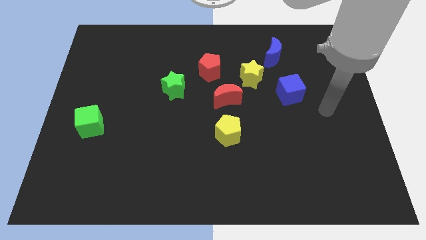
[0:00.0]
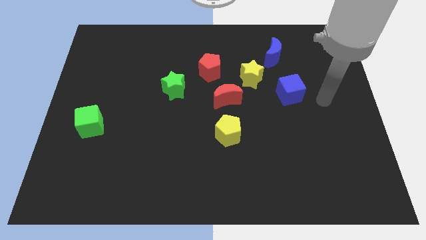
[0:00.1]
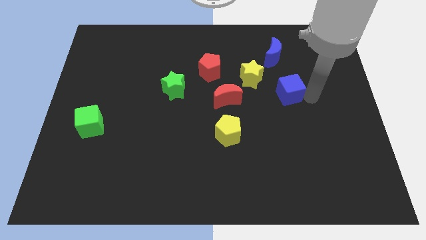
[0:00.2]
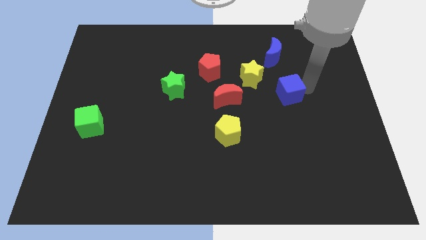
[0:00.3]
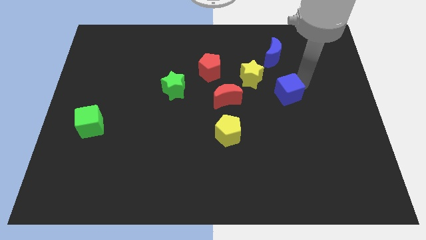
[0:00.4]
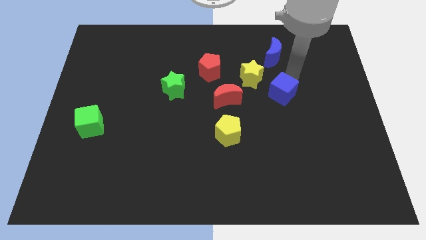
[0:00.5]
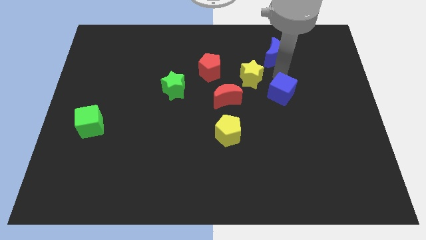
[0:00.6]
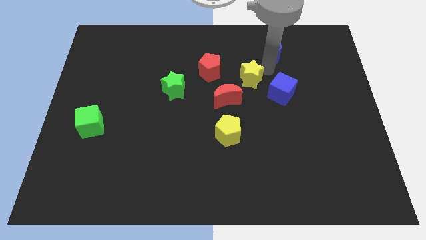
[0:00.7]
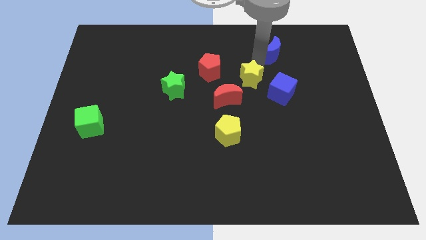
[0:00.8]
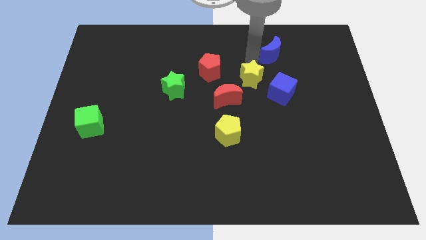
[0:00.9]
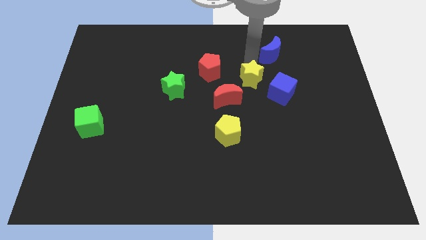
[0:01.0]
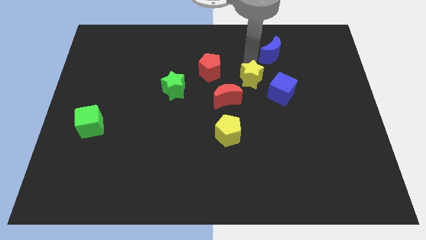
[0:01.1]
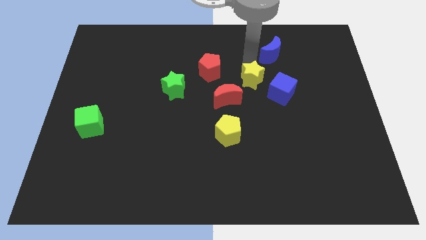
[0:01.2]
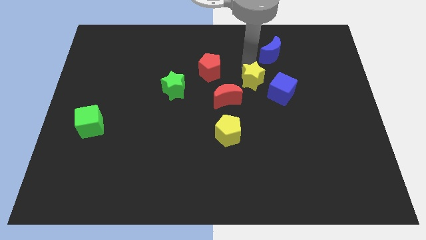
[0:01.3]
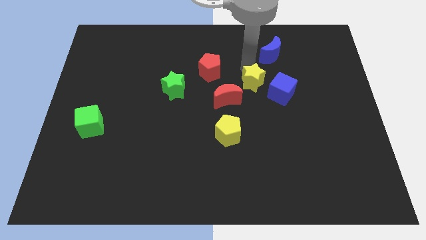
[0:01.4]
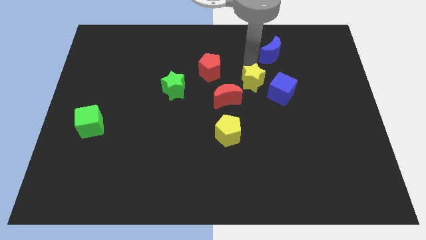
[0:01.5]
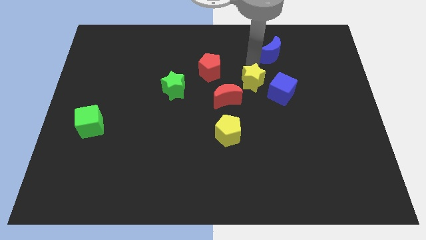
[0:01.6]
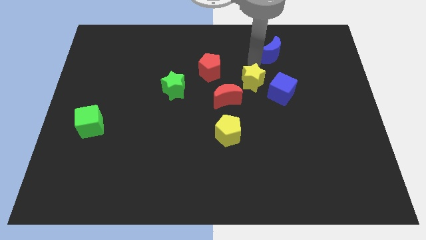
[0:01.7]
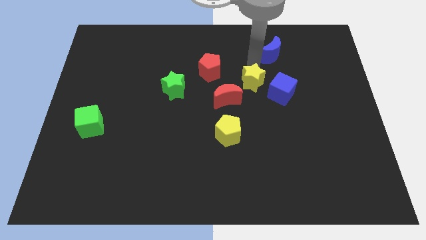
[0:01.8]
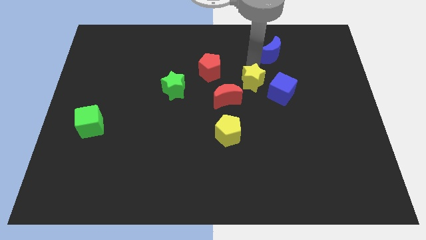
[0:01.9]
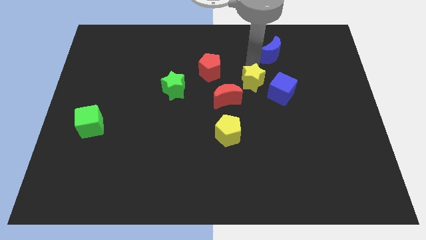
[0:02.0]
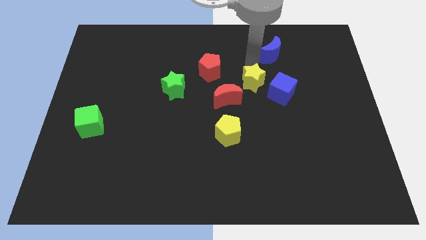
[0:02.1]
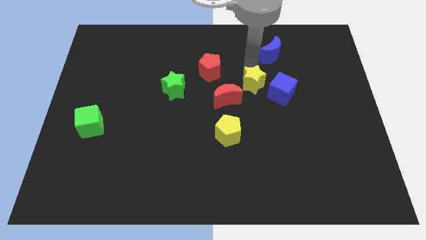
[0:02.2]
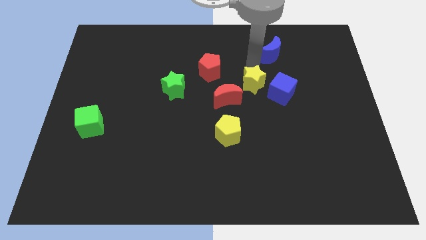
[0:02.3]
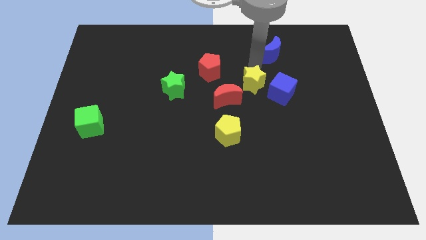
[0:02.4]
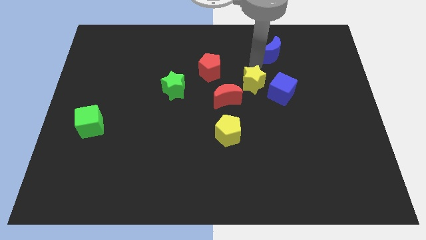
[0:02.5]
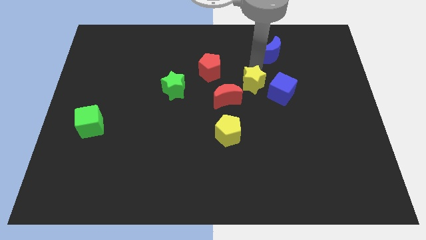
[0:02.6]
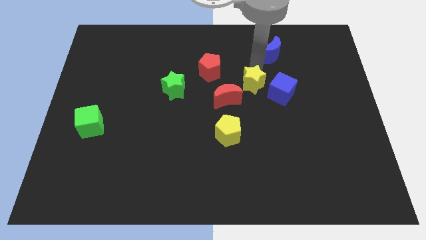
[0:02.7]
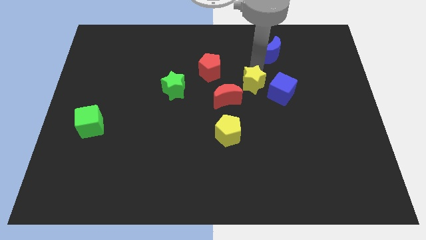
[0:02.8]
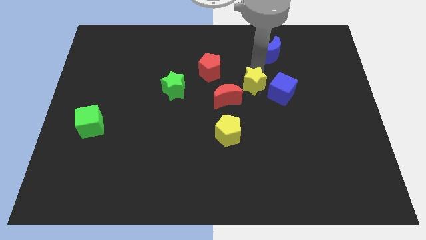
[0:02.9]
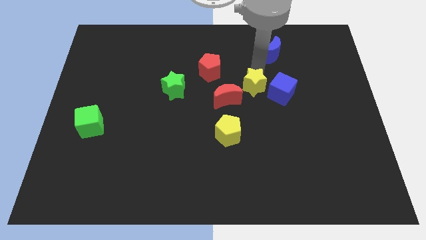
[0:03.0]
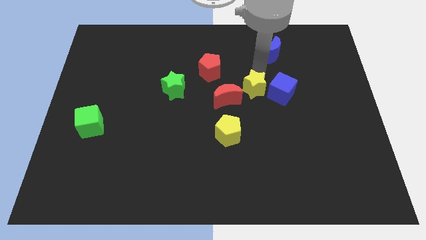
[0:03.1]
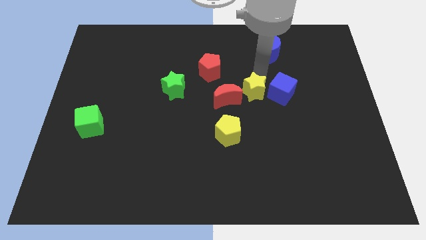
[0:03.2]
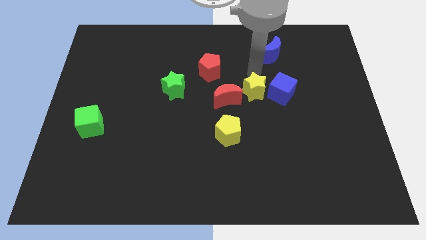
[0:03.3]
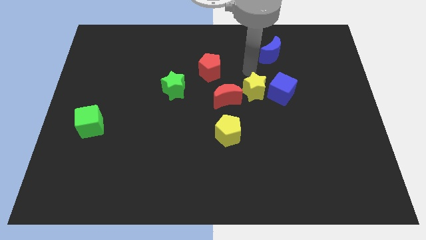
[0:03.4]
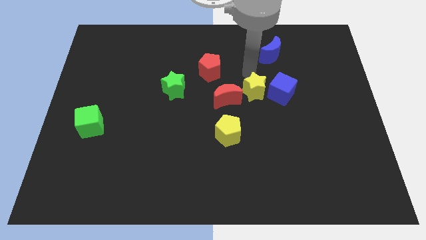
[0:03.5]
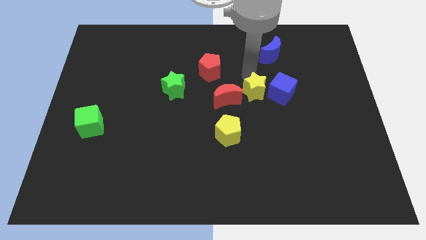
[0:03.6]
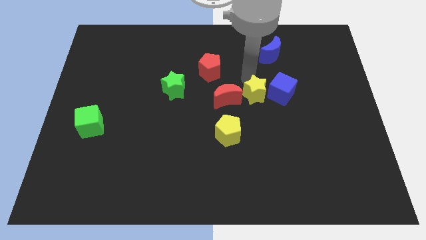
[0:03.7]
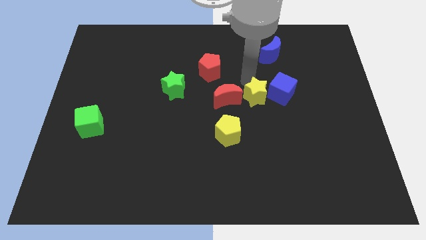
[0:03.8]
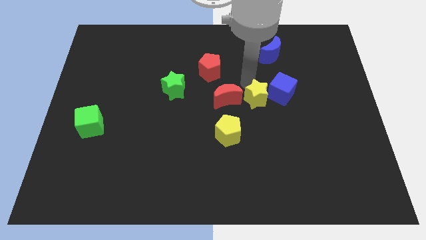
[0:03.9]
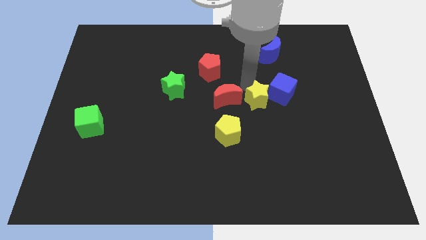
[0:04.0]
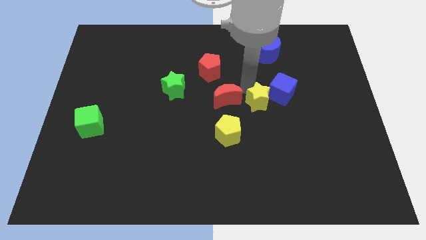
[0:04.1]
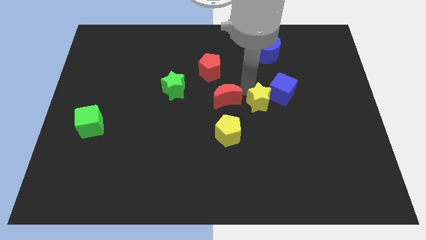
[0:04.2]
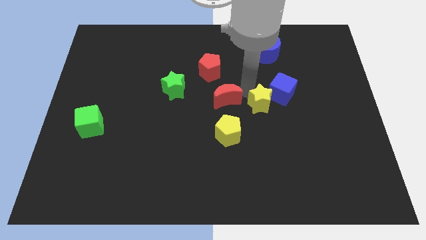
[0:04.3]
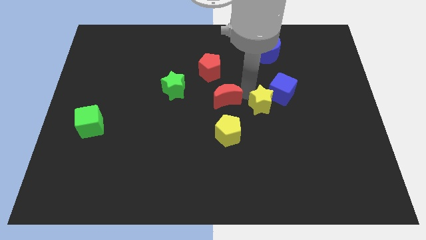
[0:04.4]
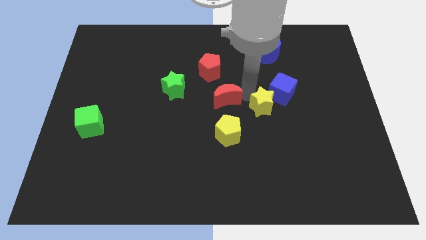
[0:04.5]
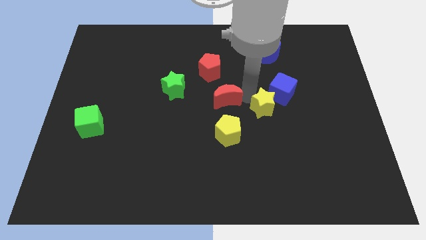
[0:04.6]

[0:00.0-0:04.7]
move the yellow star away from the red moon and blue moon

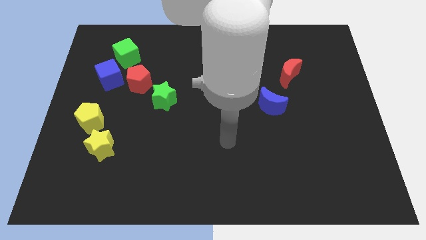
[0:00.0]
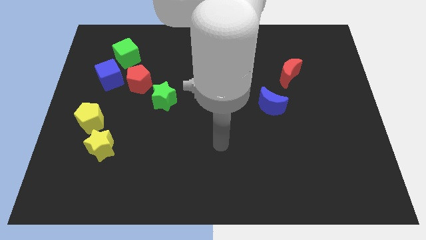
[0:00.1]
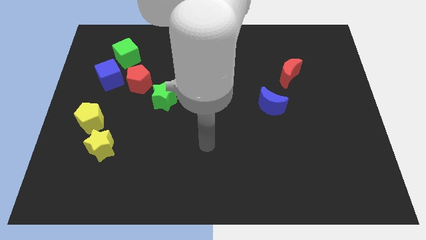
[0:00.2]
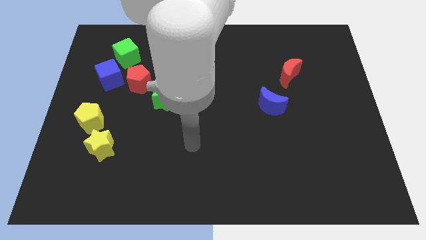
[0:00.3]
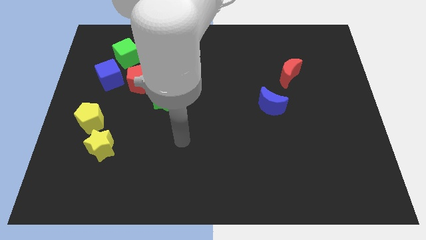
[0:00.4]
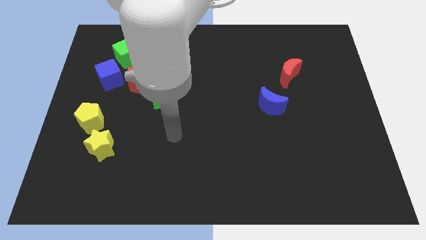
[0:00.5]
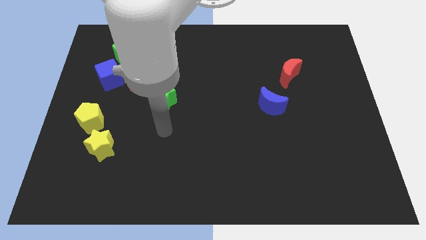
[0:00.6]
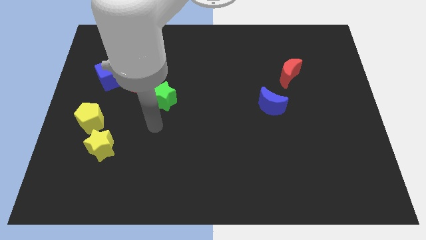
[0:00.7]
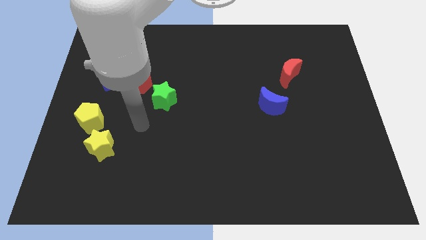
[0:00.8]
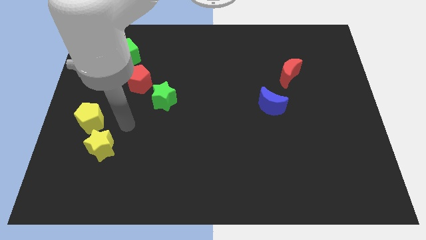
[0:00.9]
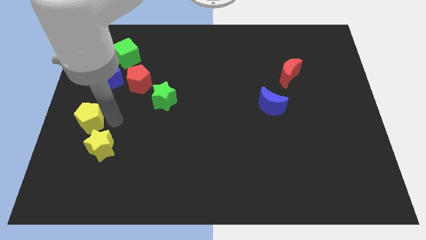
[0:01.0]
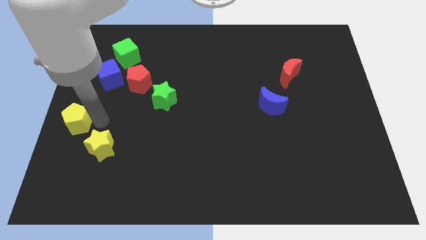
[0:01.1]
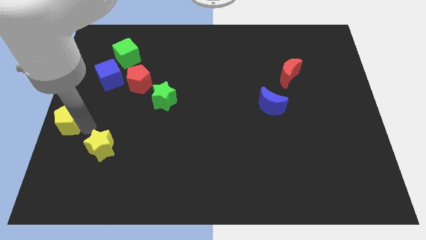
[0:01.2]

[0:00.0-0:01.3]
pull the yellow star apart from the yellow pentagon

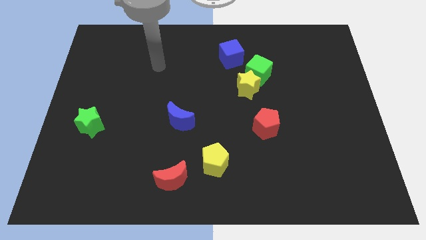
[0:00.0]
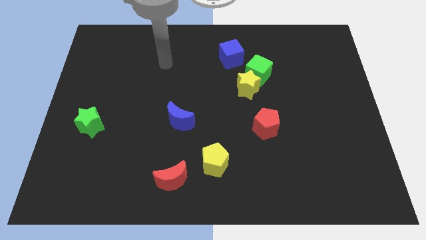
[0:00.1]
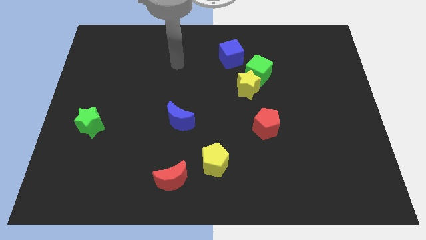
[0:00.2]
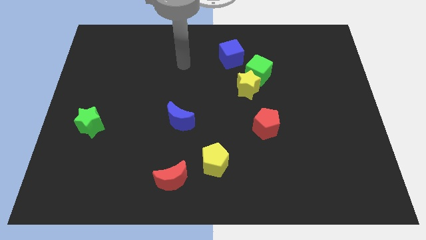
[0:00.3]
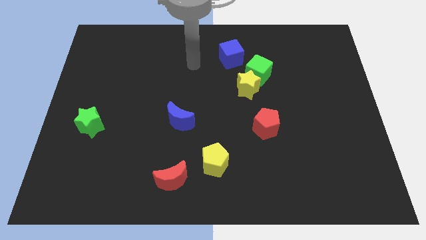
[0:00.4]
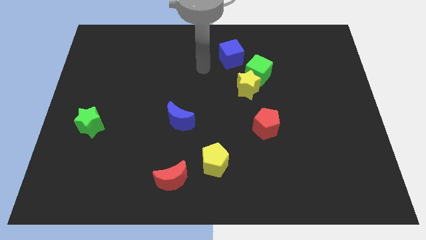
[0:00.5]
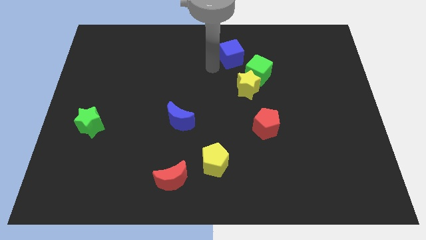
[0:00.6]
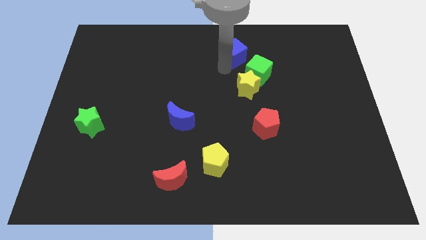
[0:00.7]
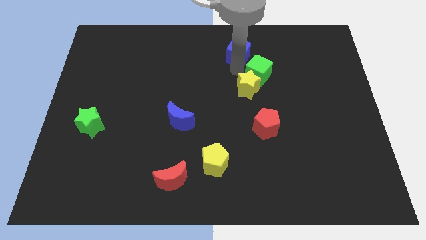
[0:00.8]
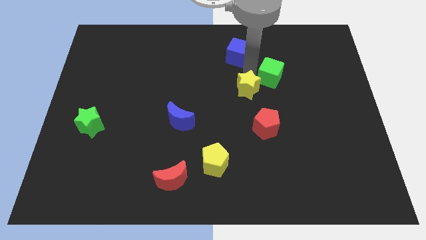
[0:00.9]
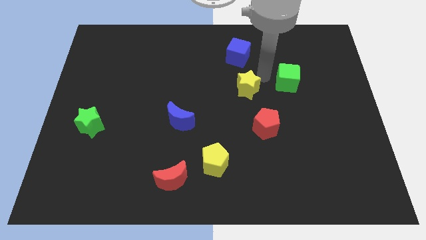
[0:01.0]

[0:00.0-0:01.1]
separate the yellow star from the green cube

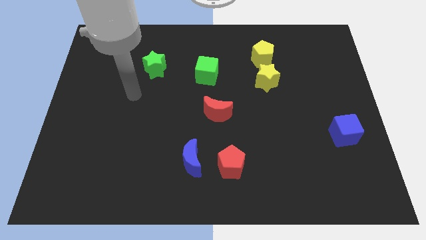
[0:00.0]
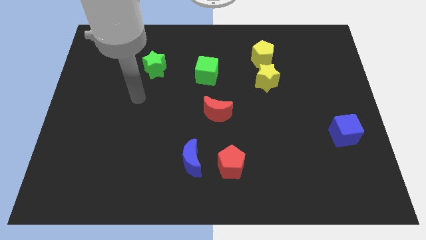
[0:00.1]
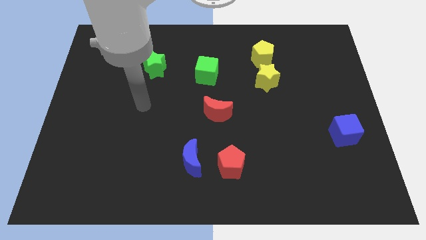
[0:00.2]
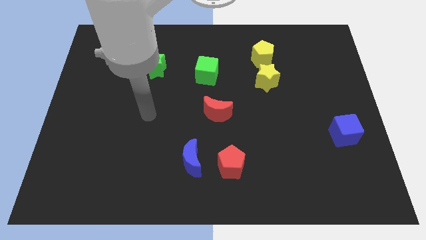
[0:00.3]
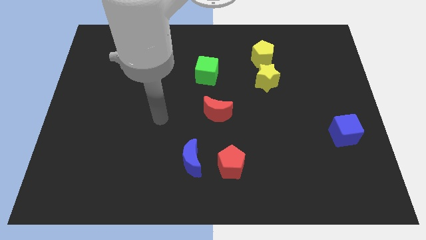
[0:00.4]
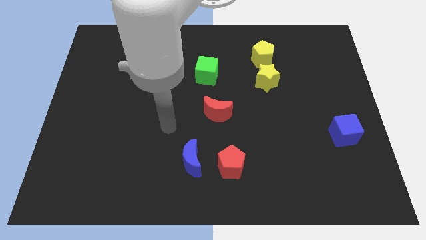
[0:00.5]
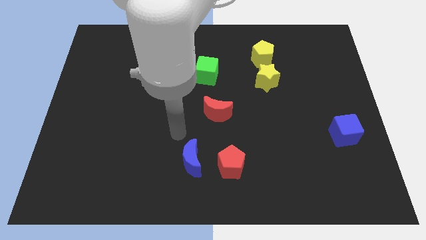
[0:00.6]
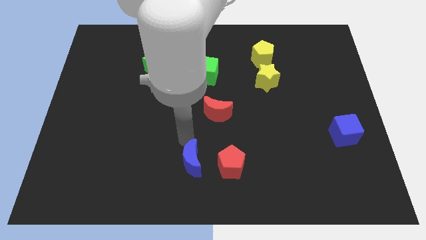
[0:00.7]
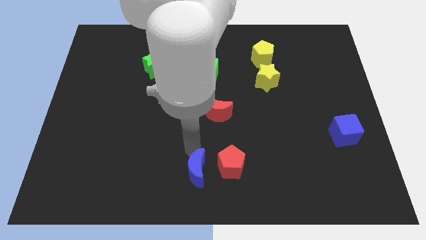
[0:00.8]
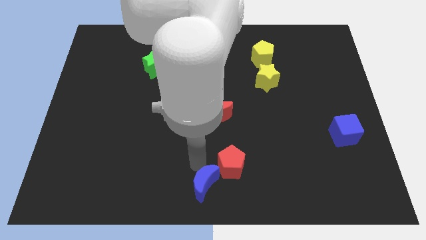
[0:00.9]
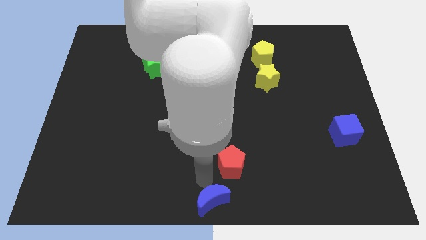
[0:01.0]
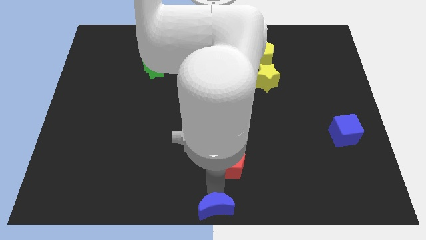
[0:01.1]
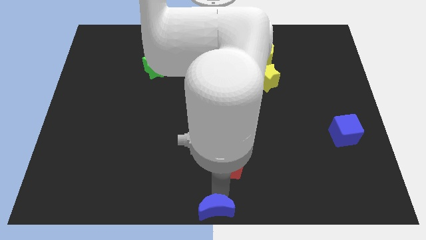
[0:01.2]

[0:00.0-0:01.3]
pull the red pentagon apart from the blue moon

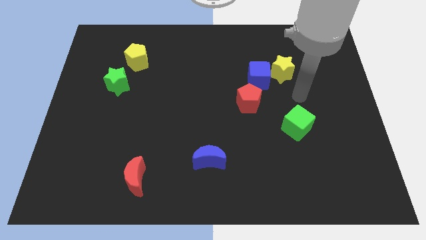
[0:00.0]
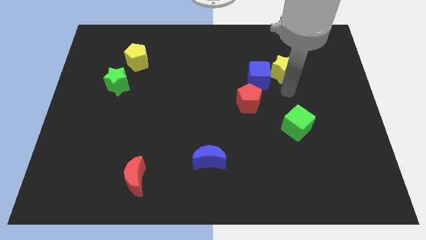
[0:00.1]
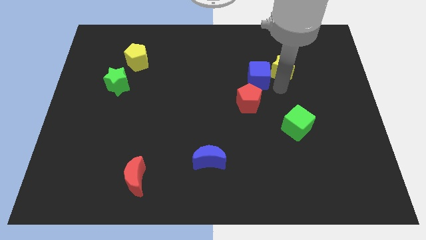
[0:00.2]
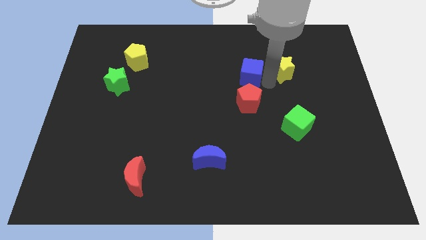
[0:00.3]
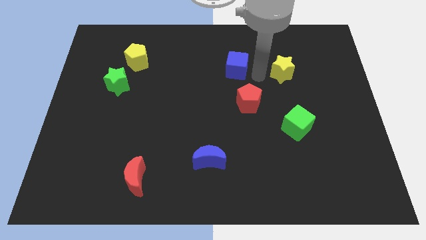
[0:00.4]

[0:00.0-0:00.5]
separate the yellow star from the blue cube

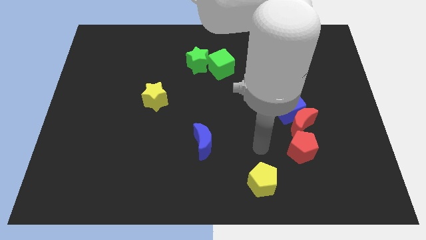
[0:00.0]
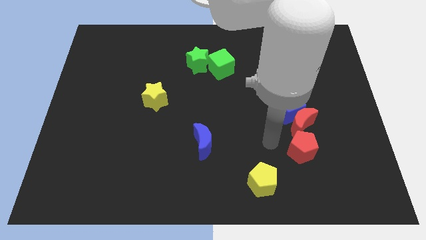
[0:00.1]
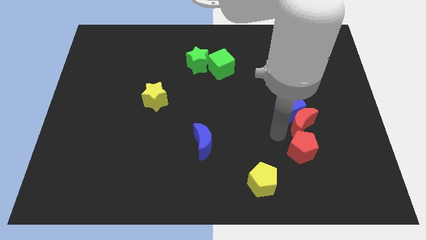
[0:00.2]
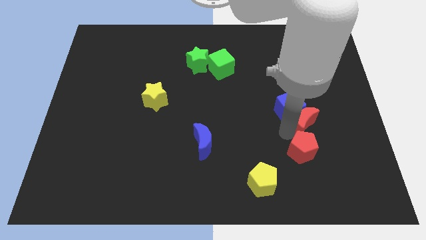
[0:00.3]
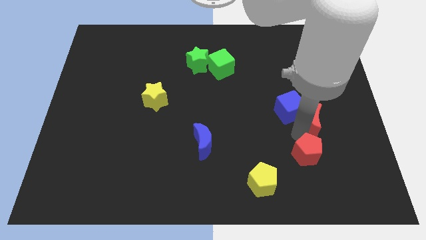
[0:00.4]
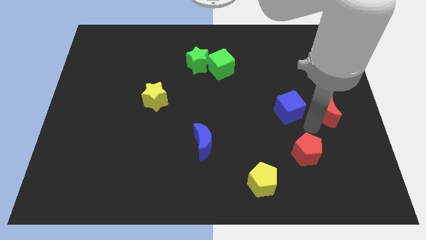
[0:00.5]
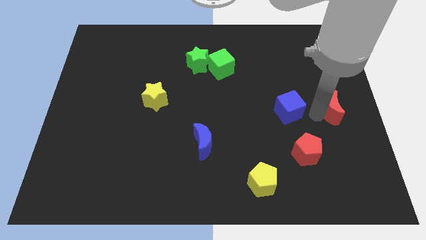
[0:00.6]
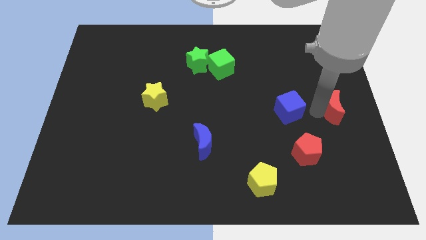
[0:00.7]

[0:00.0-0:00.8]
pull the blue cube apart from the red moon
